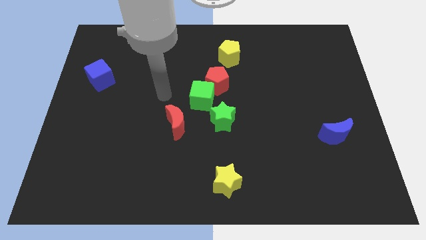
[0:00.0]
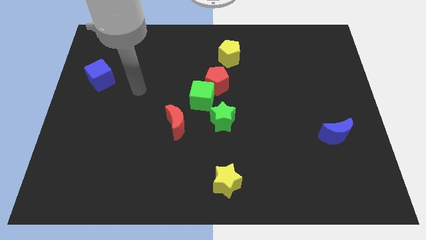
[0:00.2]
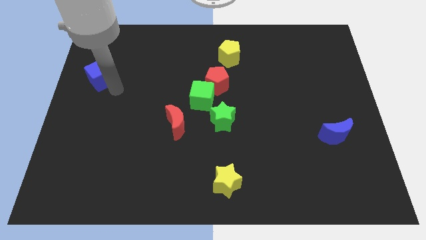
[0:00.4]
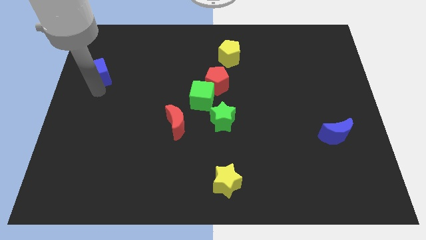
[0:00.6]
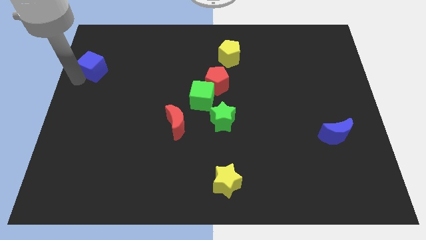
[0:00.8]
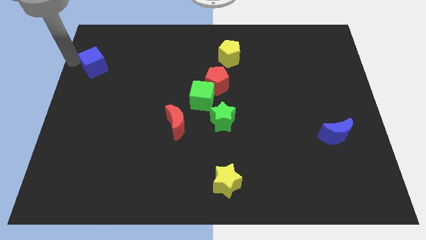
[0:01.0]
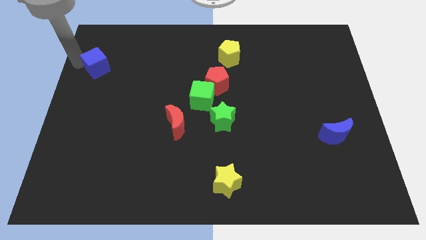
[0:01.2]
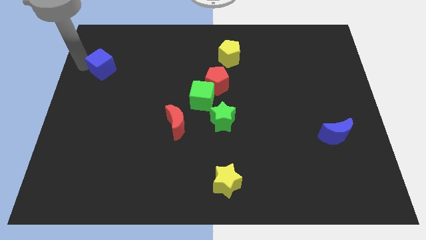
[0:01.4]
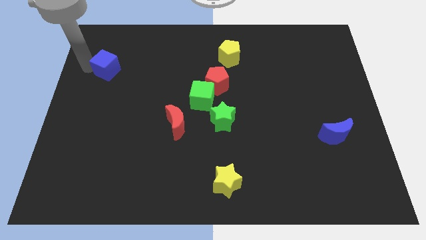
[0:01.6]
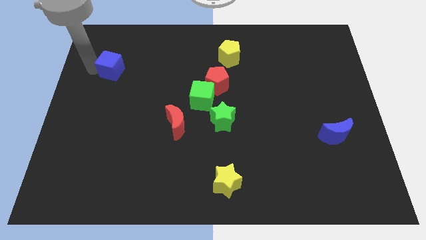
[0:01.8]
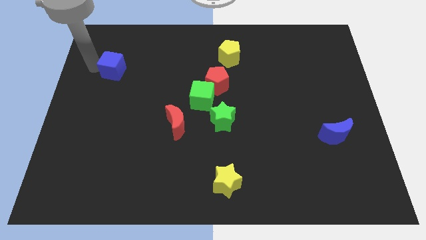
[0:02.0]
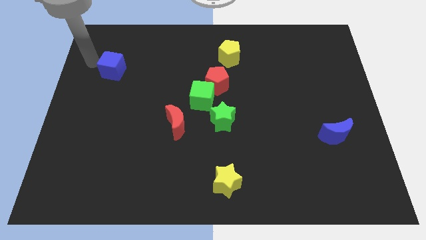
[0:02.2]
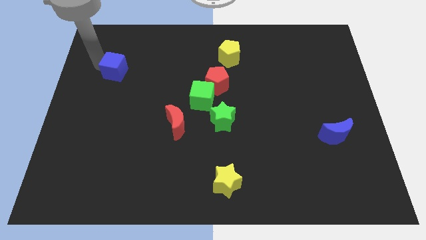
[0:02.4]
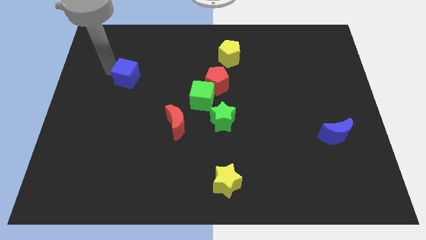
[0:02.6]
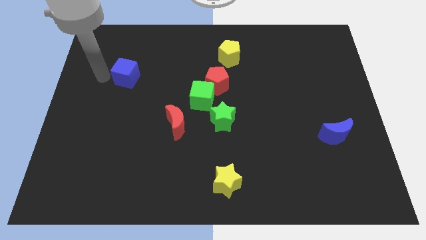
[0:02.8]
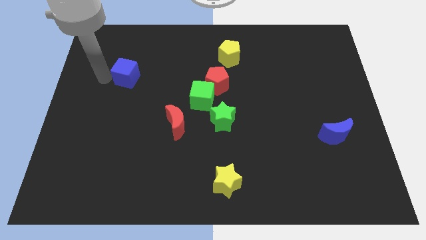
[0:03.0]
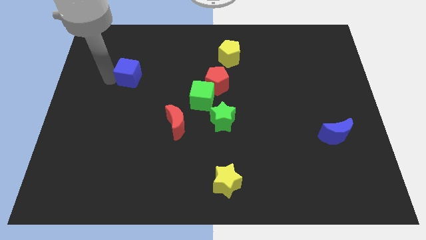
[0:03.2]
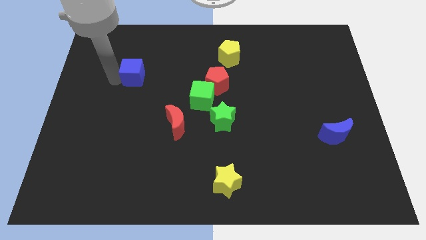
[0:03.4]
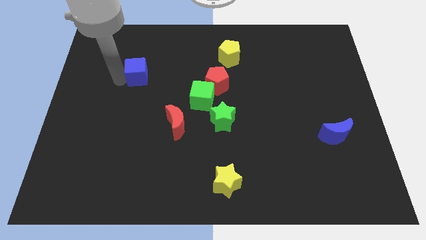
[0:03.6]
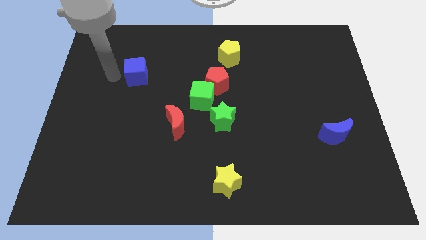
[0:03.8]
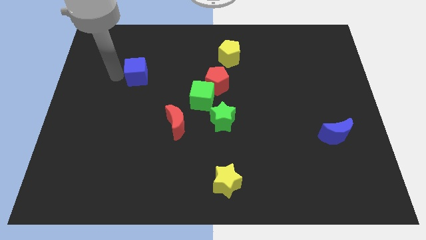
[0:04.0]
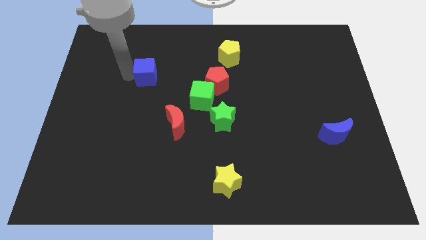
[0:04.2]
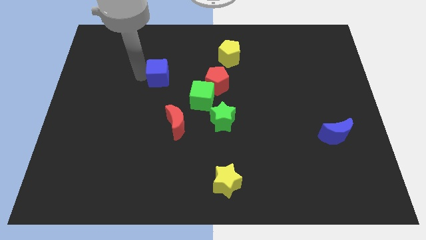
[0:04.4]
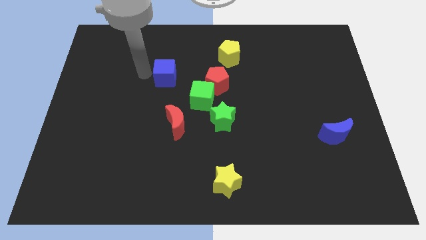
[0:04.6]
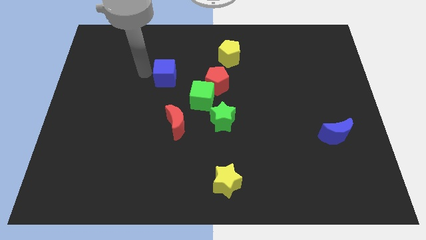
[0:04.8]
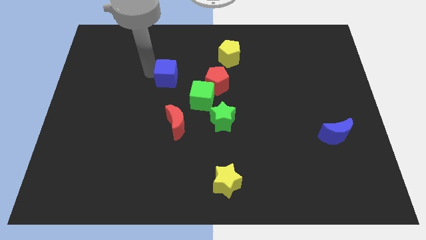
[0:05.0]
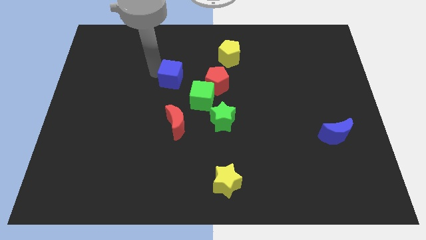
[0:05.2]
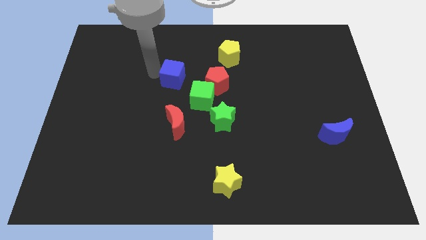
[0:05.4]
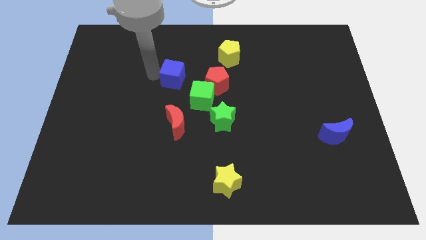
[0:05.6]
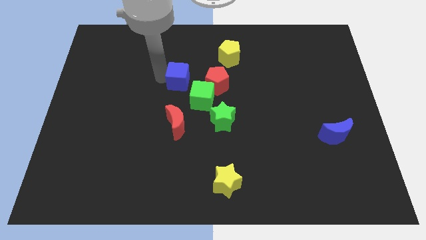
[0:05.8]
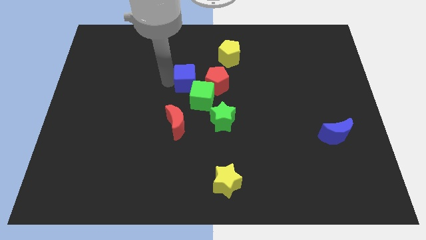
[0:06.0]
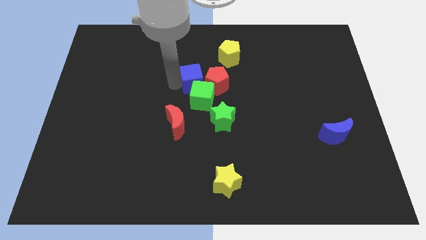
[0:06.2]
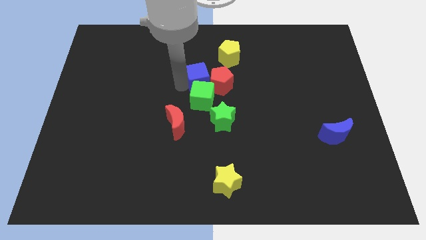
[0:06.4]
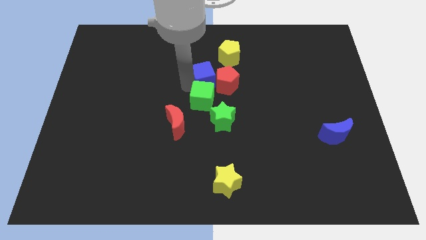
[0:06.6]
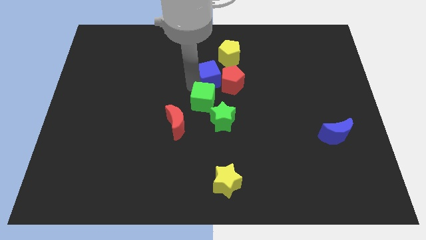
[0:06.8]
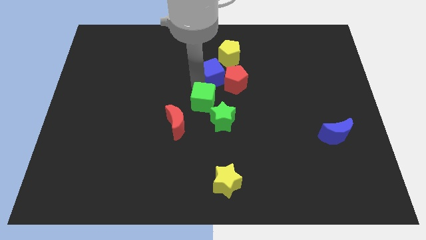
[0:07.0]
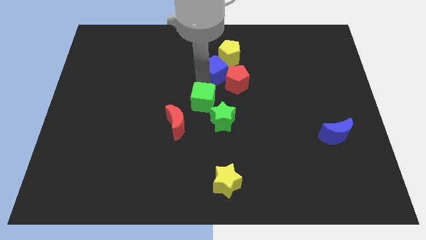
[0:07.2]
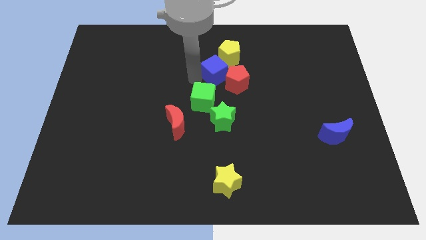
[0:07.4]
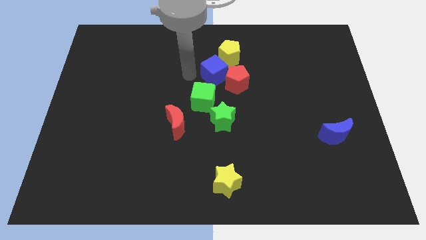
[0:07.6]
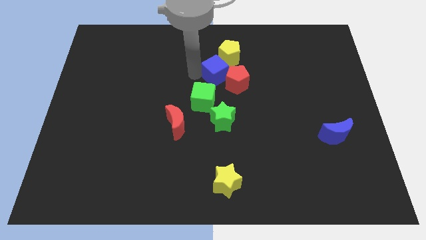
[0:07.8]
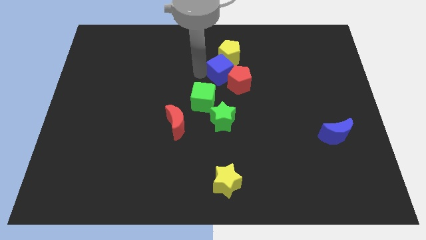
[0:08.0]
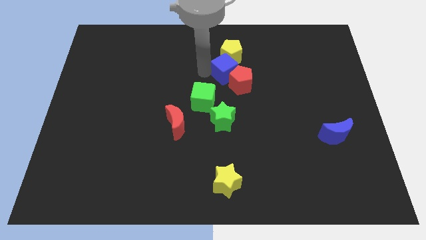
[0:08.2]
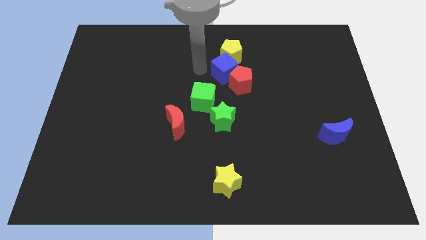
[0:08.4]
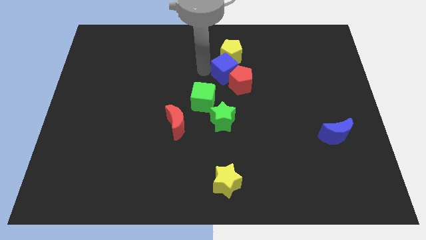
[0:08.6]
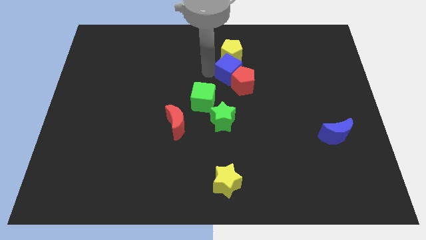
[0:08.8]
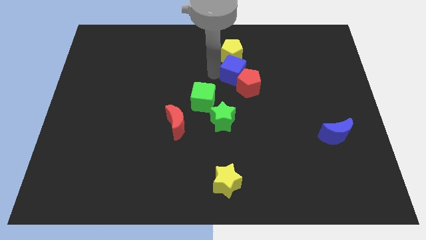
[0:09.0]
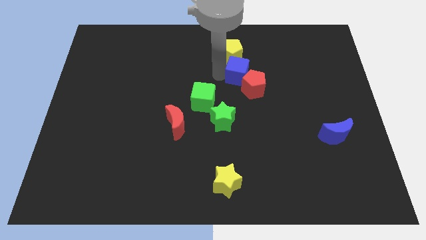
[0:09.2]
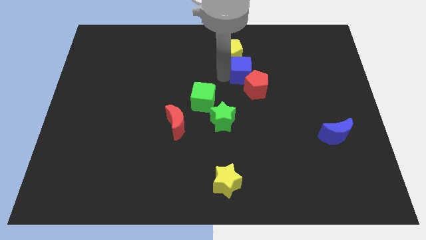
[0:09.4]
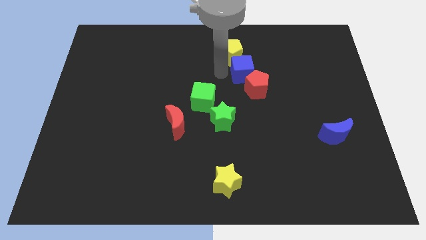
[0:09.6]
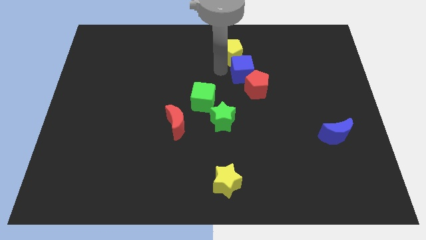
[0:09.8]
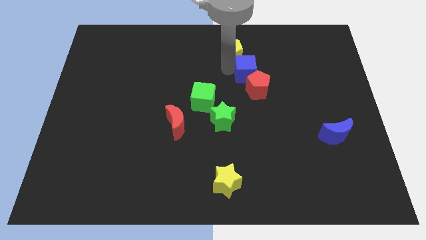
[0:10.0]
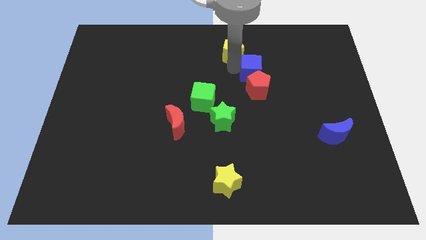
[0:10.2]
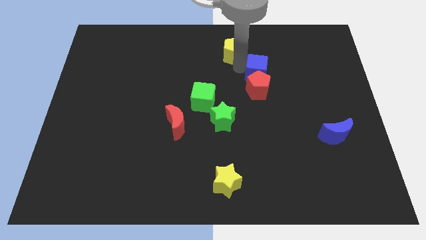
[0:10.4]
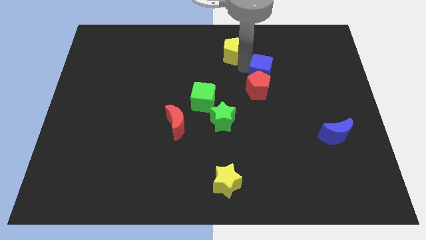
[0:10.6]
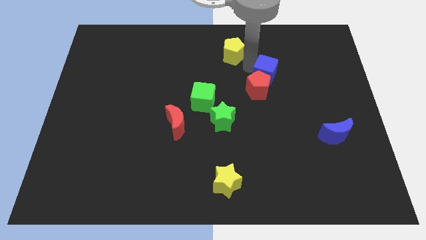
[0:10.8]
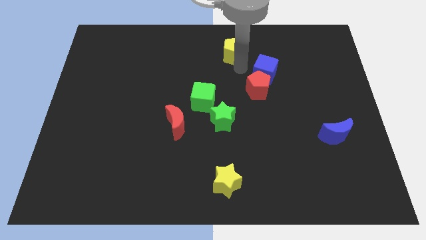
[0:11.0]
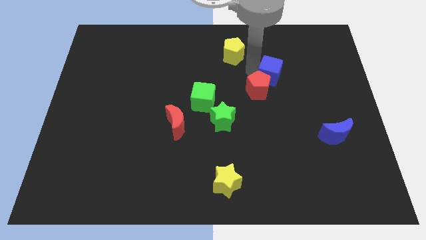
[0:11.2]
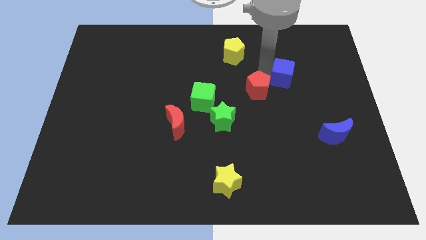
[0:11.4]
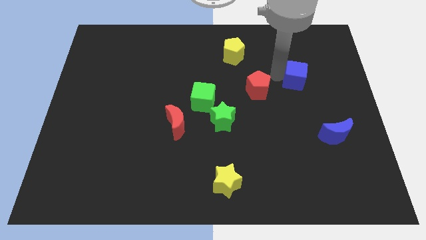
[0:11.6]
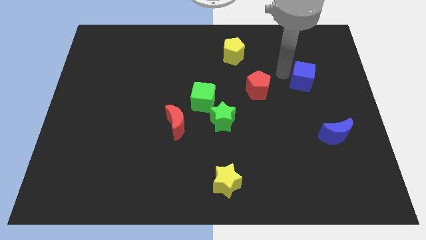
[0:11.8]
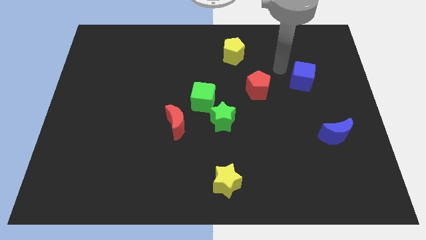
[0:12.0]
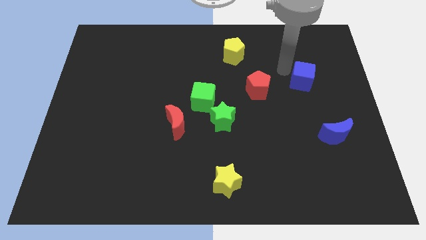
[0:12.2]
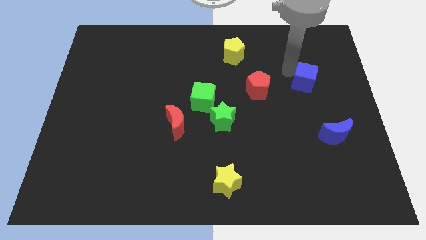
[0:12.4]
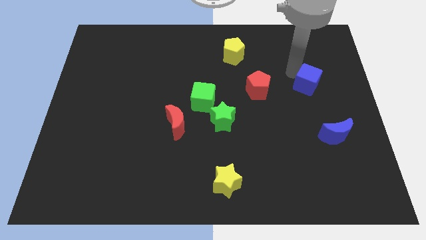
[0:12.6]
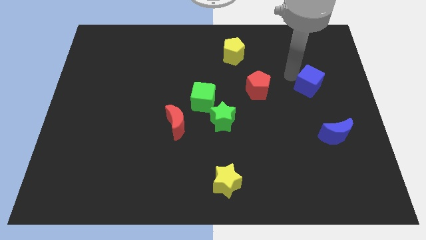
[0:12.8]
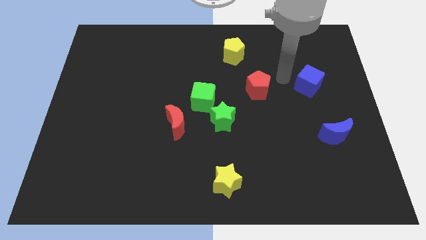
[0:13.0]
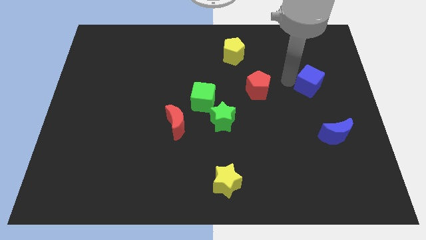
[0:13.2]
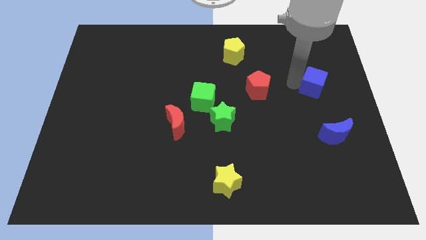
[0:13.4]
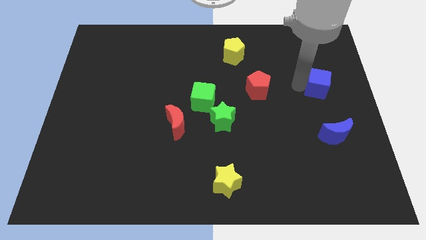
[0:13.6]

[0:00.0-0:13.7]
put the blue cube to the right side of the board
